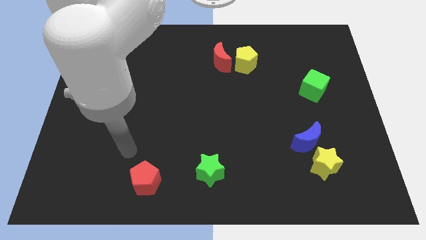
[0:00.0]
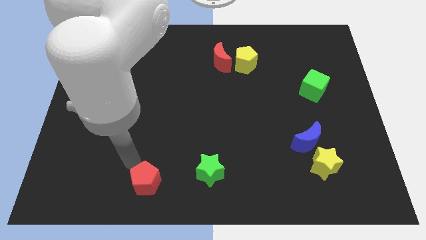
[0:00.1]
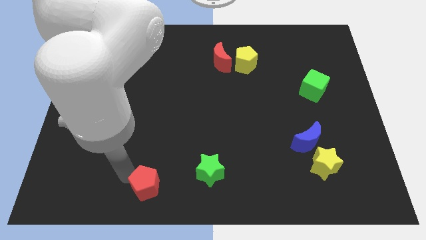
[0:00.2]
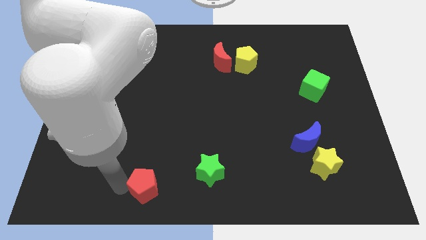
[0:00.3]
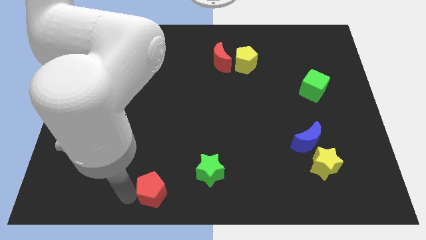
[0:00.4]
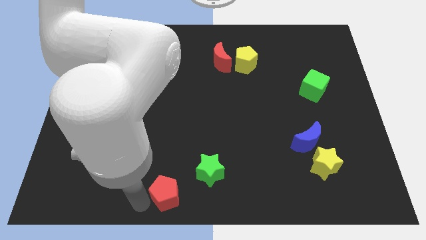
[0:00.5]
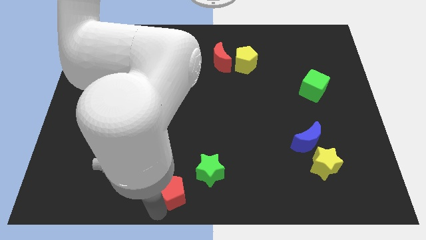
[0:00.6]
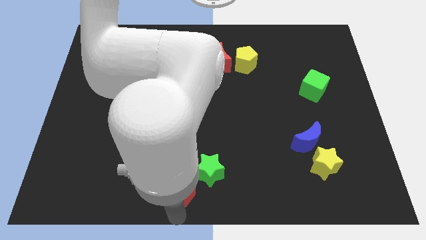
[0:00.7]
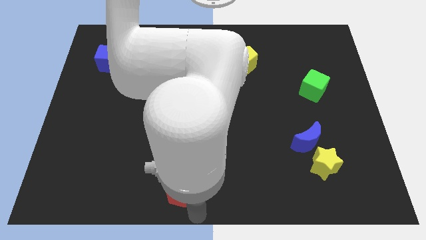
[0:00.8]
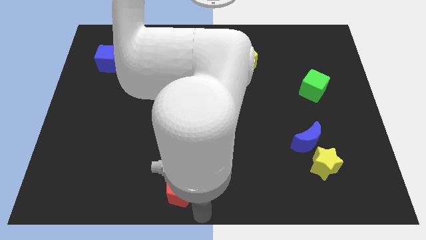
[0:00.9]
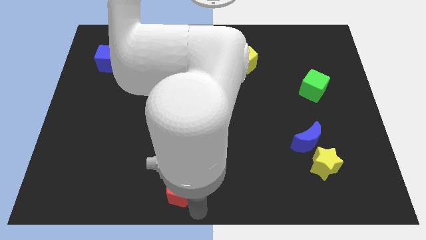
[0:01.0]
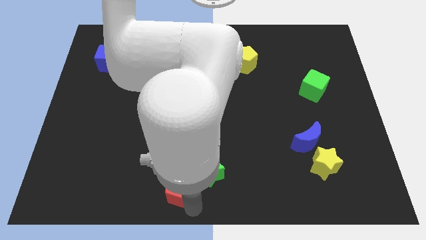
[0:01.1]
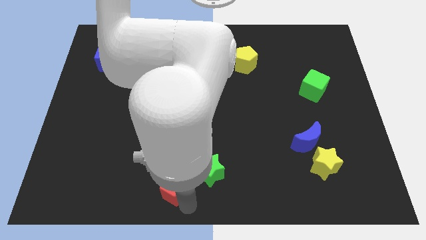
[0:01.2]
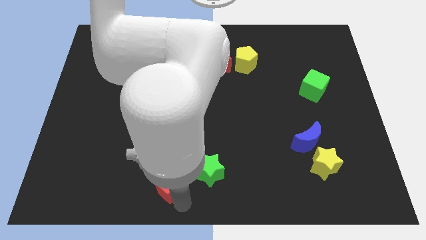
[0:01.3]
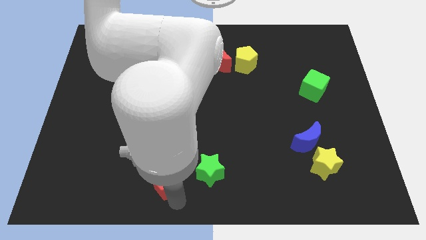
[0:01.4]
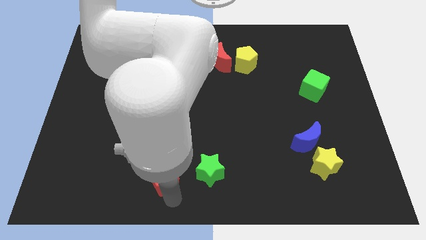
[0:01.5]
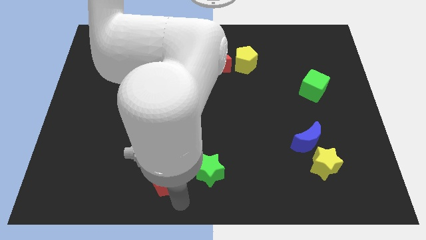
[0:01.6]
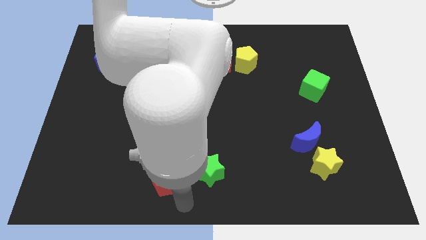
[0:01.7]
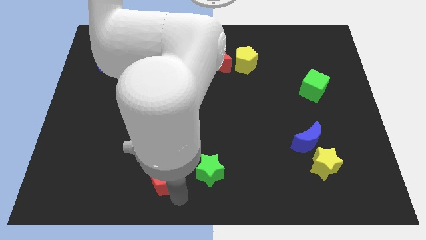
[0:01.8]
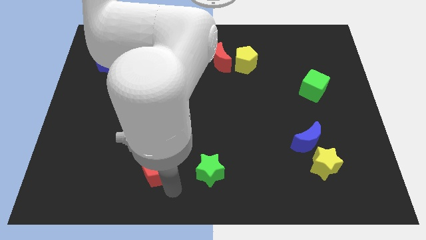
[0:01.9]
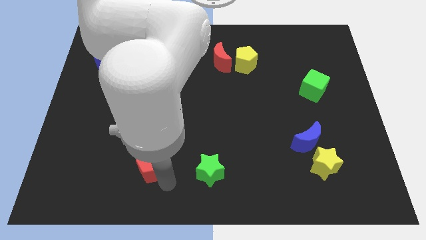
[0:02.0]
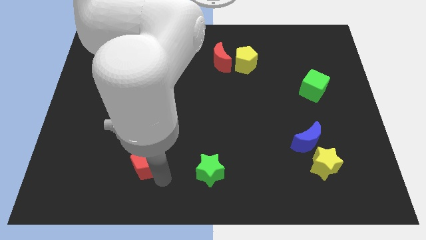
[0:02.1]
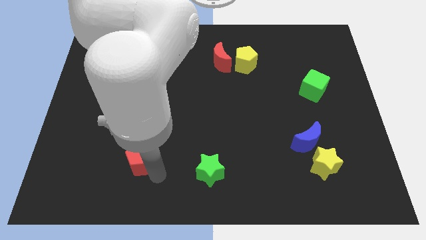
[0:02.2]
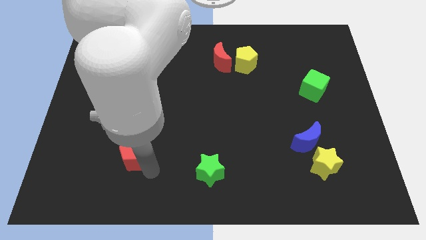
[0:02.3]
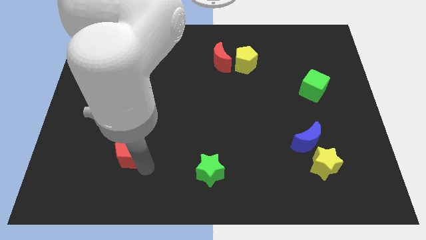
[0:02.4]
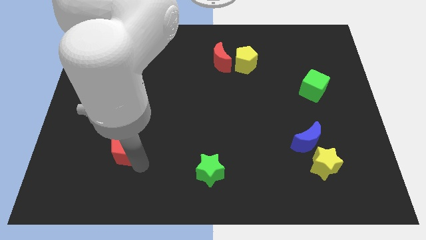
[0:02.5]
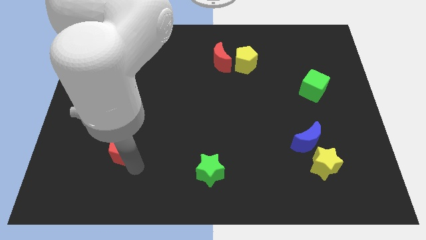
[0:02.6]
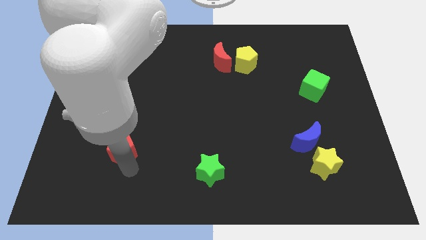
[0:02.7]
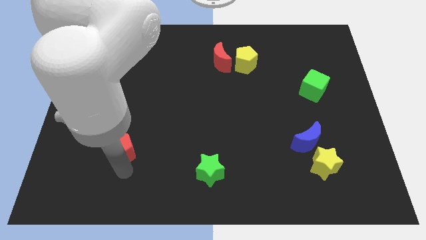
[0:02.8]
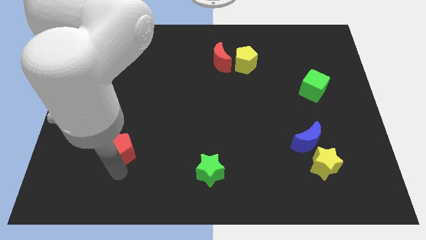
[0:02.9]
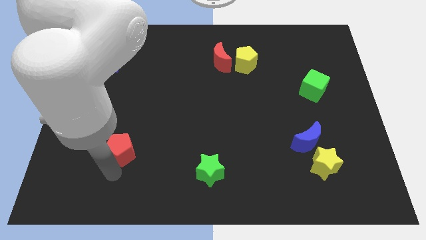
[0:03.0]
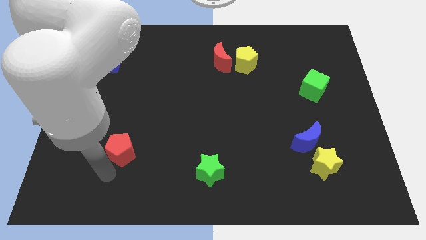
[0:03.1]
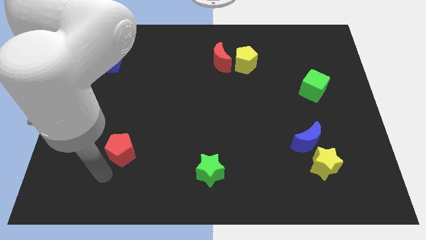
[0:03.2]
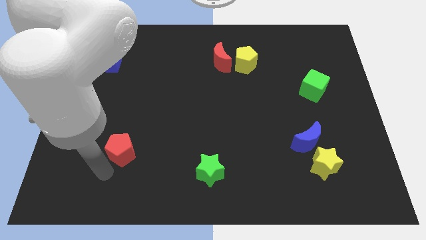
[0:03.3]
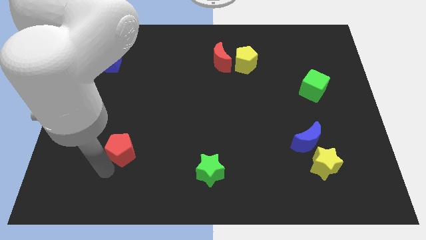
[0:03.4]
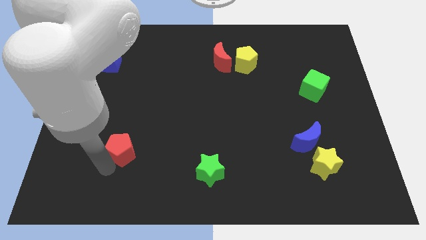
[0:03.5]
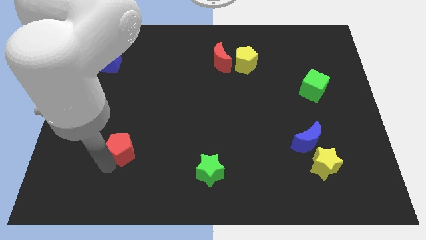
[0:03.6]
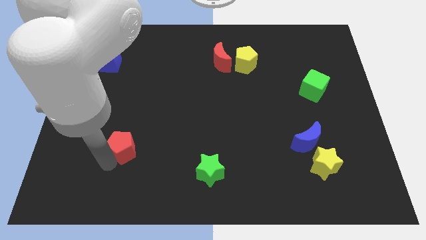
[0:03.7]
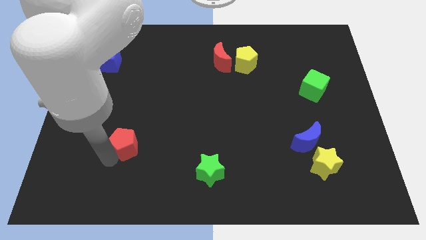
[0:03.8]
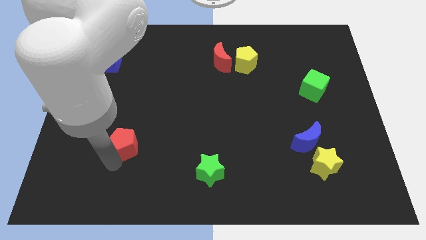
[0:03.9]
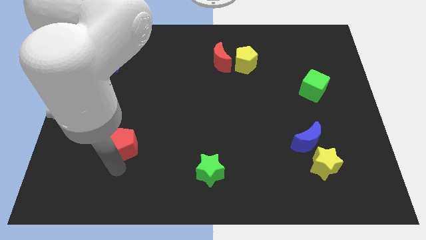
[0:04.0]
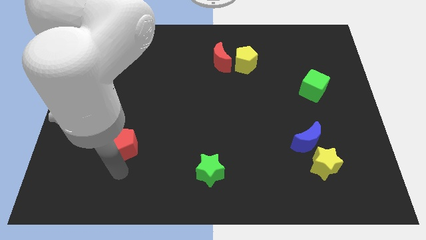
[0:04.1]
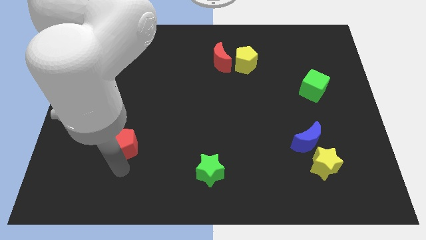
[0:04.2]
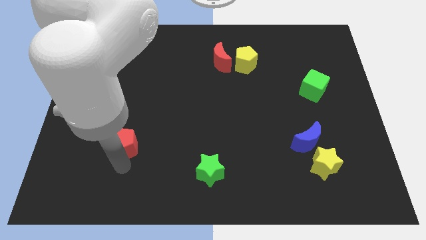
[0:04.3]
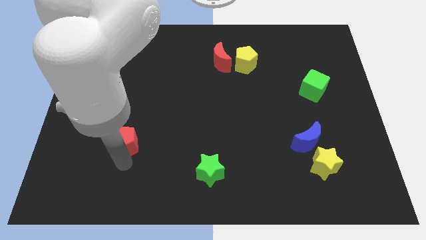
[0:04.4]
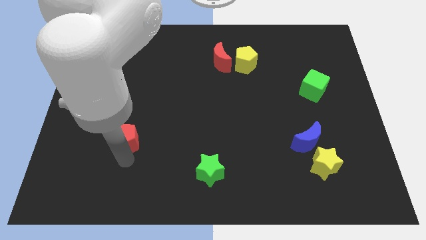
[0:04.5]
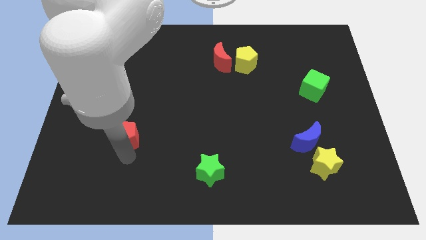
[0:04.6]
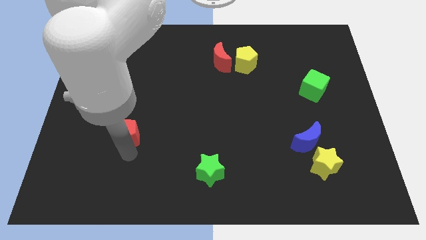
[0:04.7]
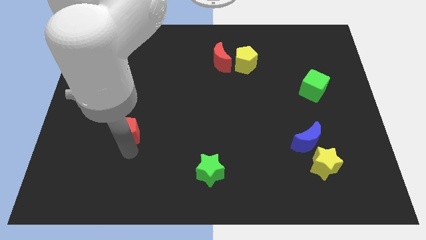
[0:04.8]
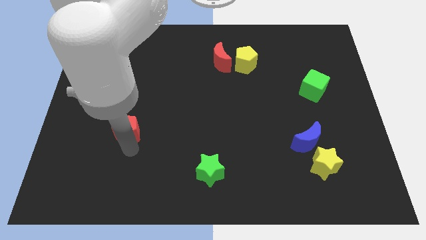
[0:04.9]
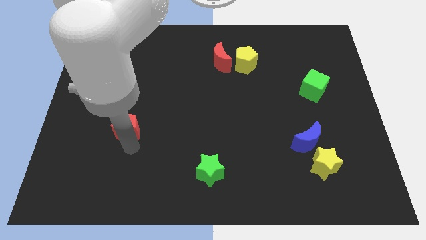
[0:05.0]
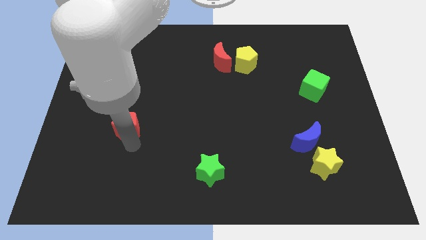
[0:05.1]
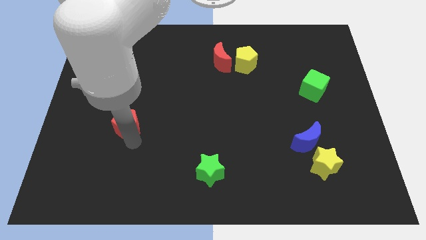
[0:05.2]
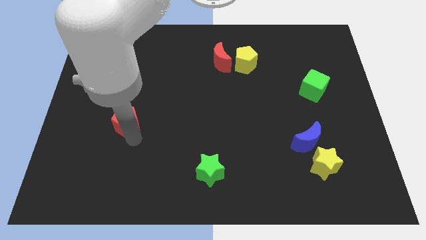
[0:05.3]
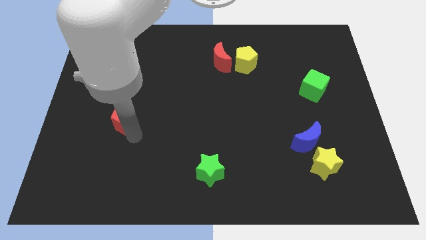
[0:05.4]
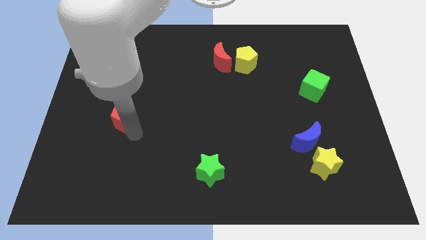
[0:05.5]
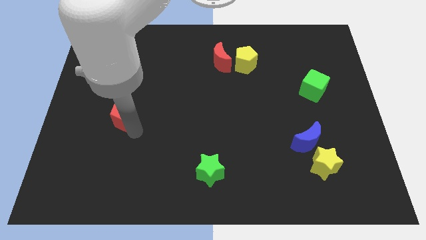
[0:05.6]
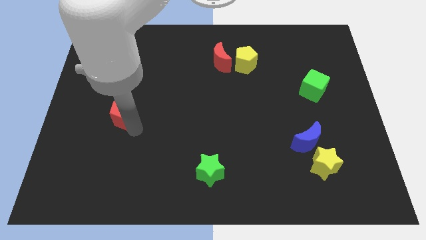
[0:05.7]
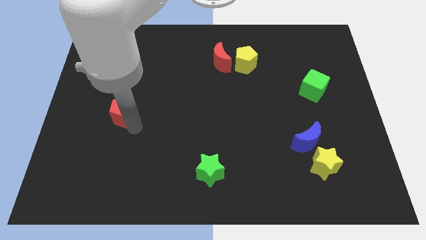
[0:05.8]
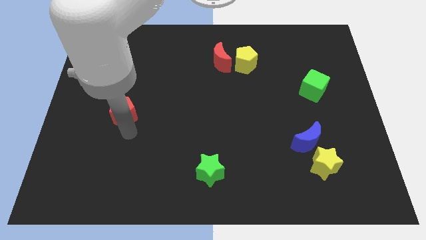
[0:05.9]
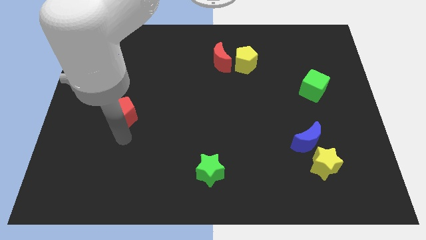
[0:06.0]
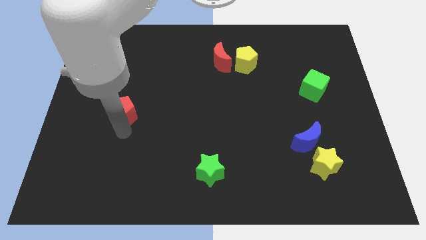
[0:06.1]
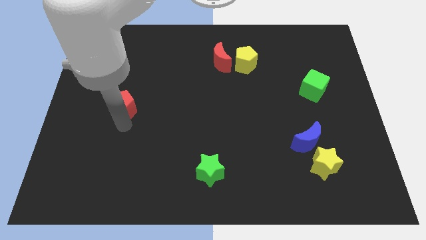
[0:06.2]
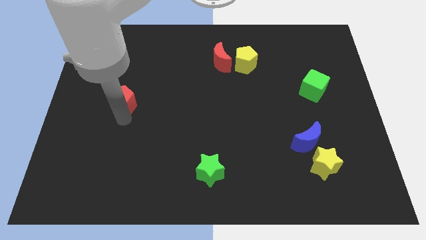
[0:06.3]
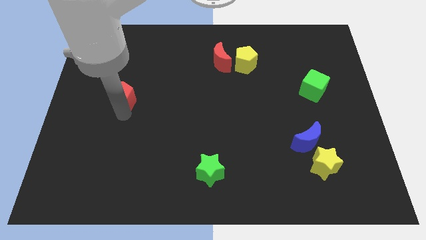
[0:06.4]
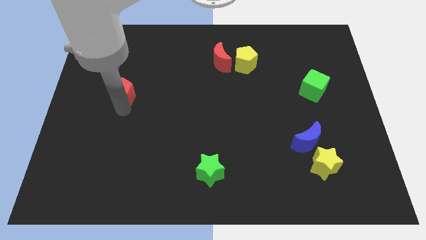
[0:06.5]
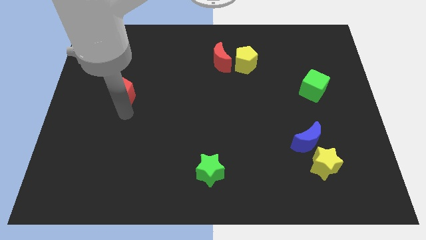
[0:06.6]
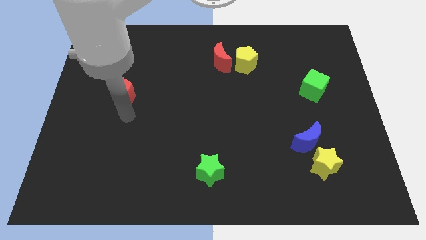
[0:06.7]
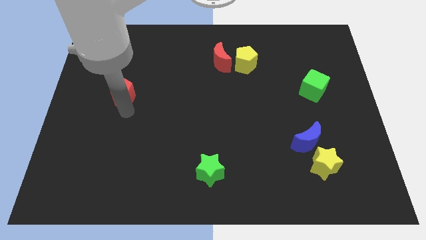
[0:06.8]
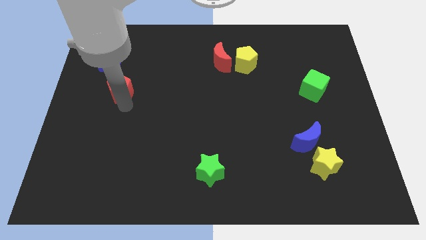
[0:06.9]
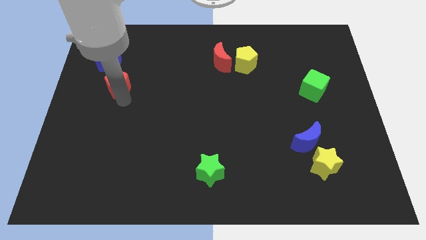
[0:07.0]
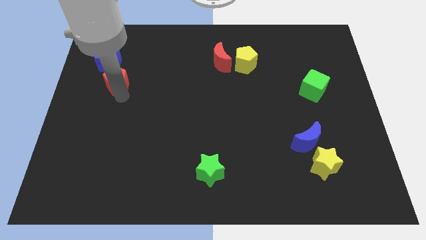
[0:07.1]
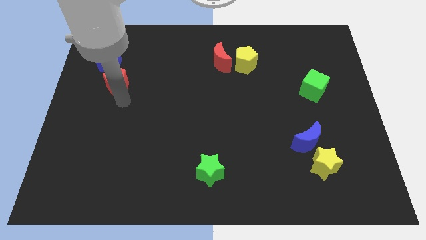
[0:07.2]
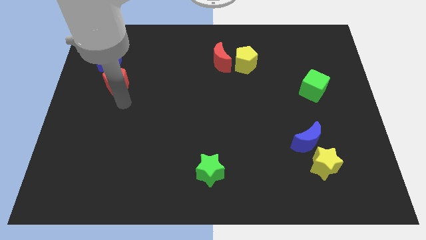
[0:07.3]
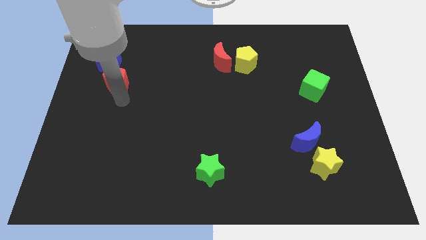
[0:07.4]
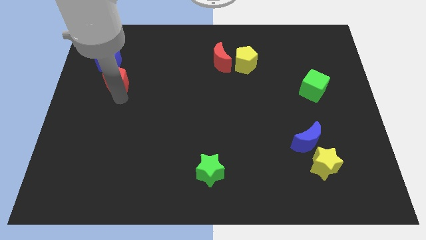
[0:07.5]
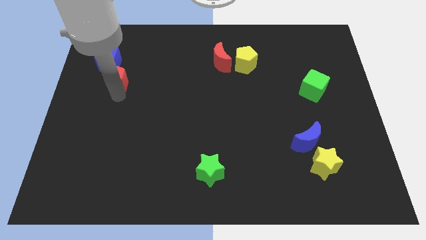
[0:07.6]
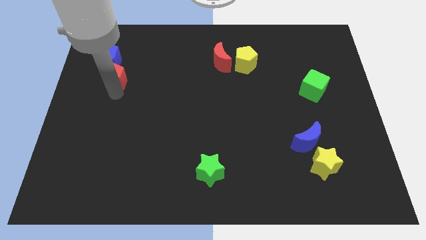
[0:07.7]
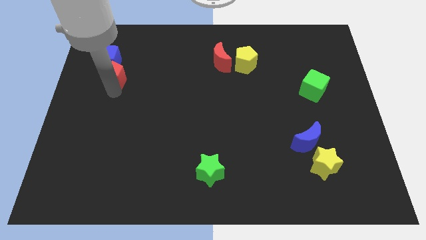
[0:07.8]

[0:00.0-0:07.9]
move the red pentagon towards the blue cube
